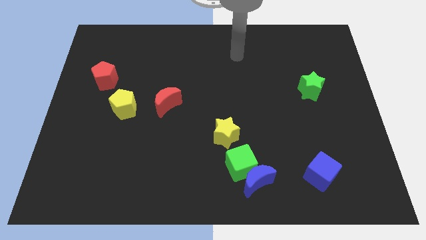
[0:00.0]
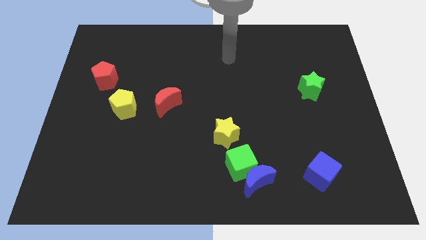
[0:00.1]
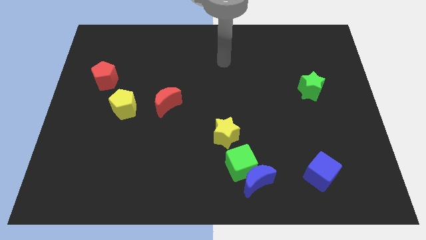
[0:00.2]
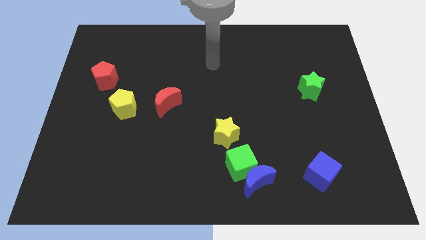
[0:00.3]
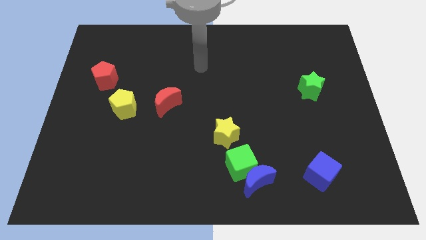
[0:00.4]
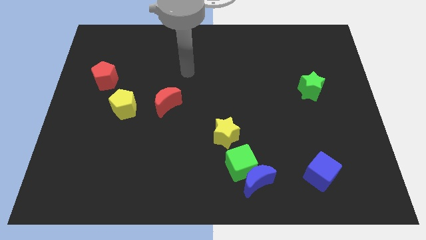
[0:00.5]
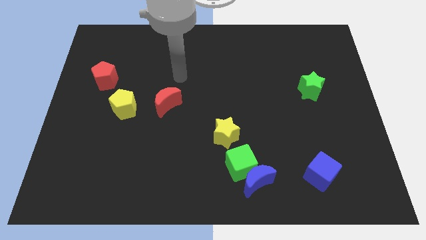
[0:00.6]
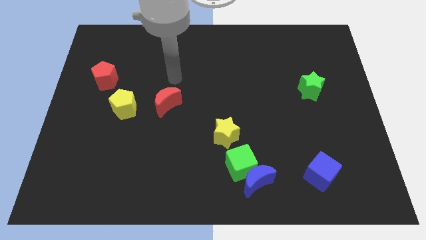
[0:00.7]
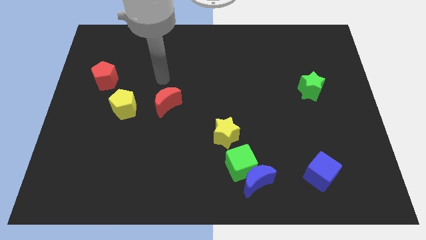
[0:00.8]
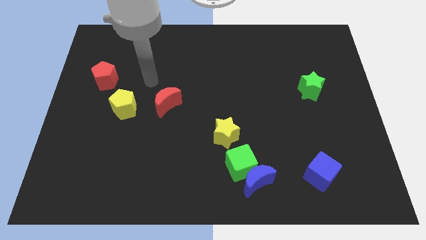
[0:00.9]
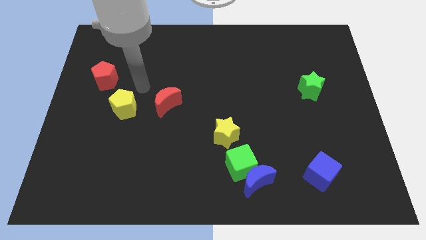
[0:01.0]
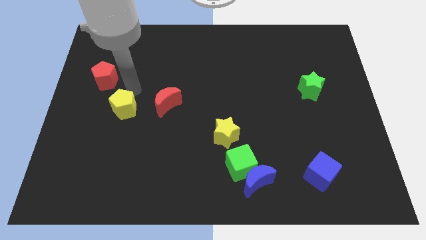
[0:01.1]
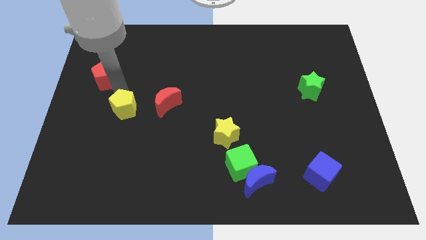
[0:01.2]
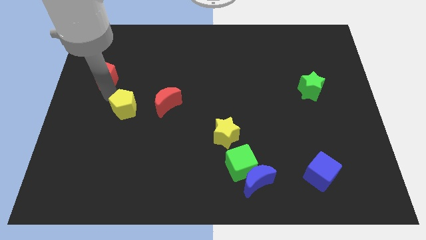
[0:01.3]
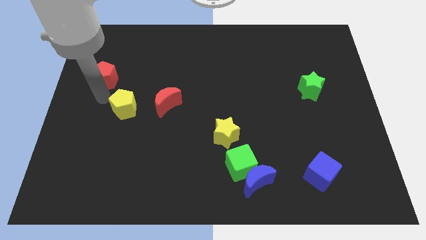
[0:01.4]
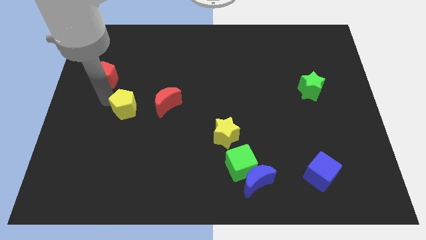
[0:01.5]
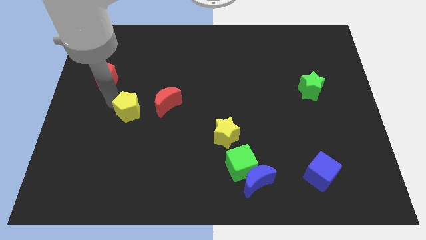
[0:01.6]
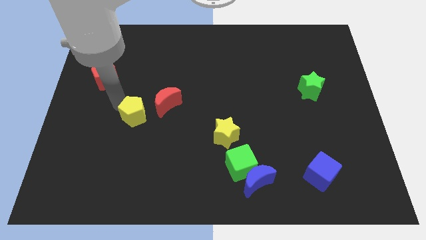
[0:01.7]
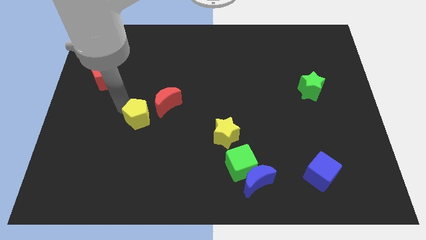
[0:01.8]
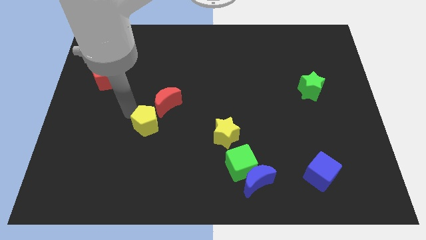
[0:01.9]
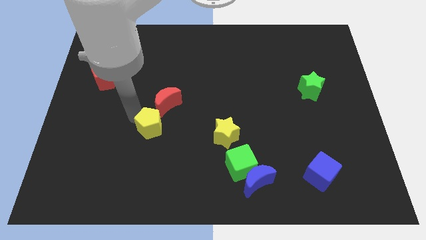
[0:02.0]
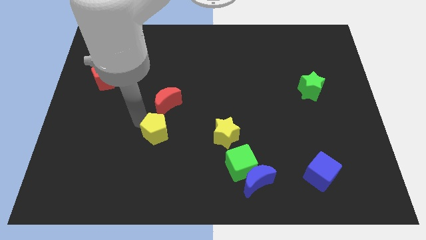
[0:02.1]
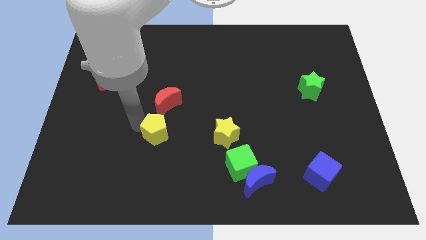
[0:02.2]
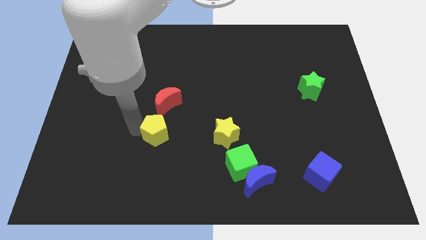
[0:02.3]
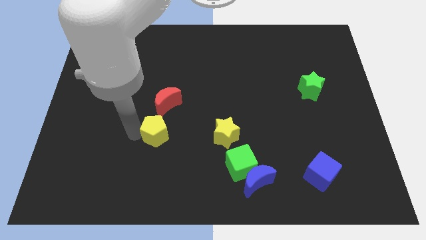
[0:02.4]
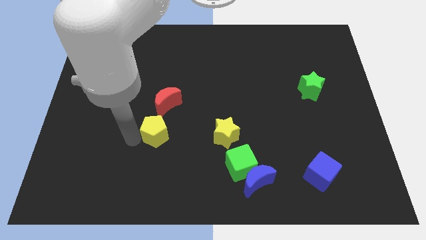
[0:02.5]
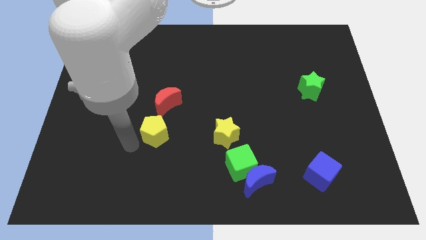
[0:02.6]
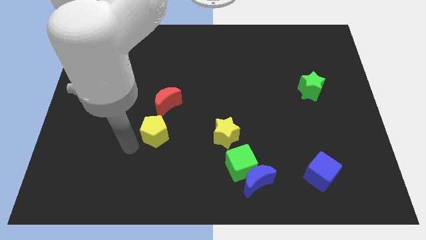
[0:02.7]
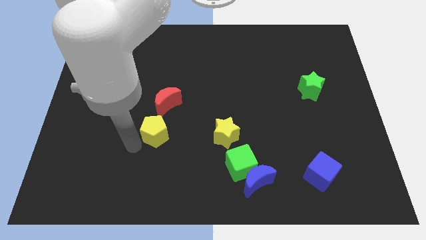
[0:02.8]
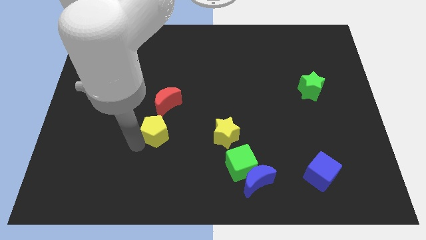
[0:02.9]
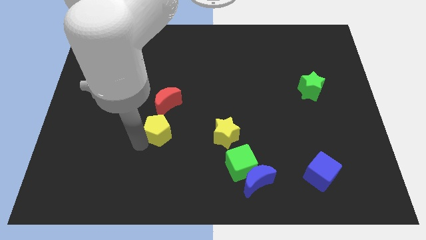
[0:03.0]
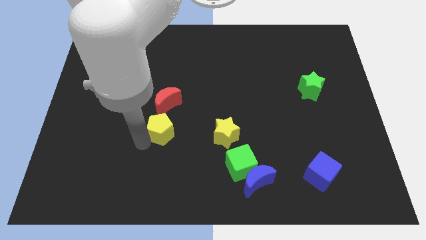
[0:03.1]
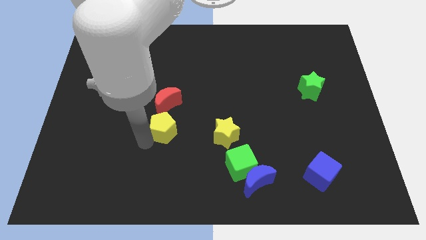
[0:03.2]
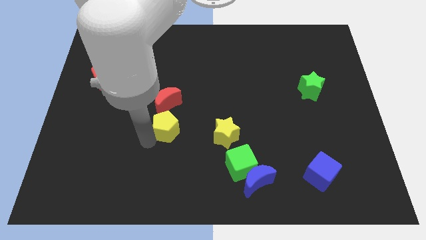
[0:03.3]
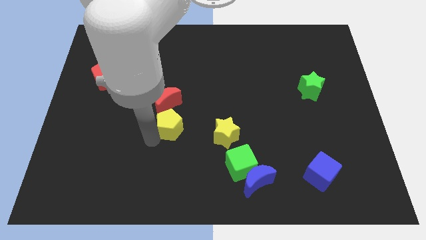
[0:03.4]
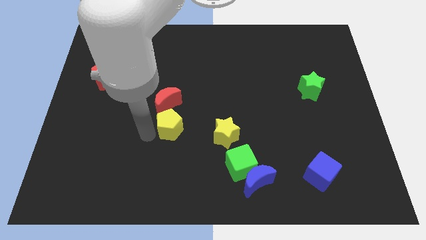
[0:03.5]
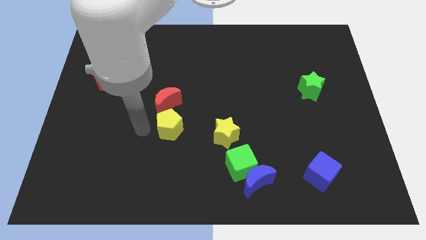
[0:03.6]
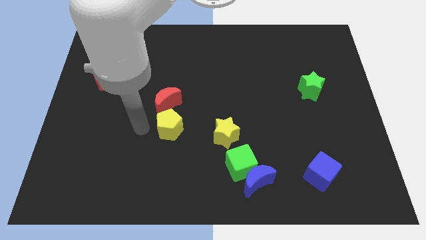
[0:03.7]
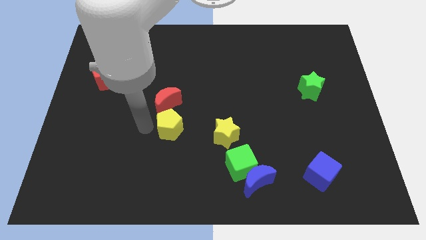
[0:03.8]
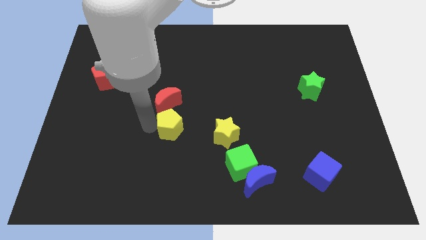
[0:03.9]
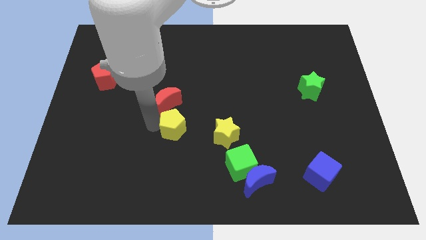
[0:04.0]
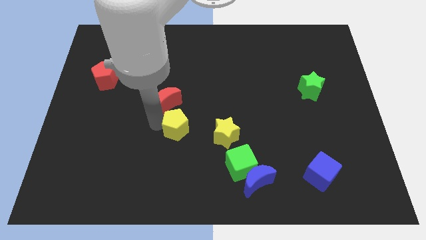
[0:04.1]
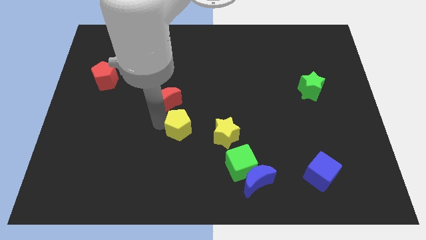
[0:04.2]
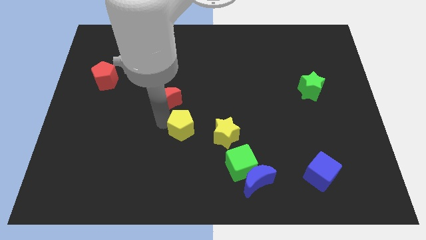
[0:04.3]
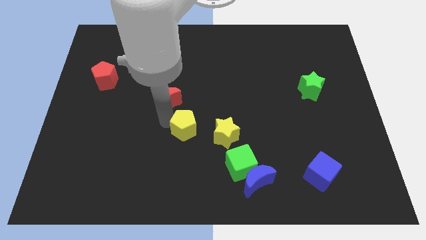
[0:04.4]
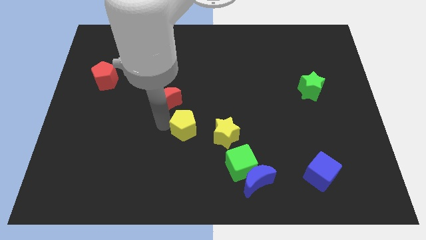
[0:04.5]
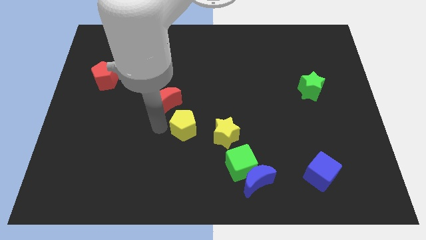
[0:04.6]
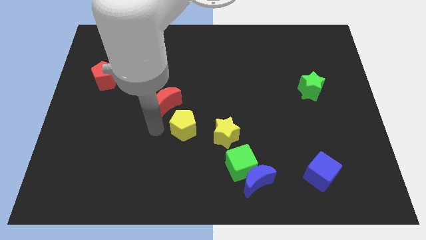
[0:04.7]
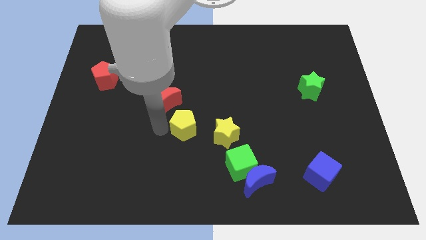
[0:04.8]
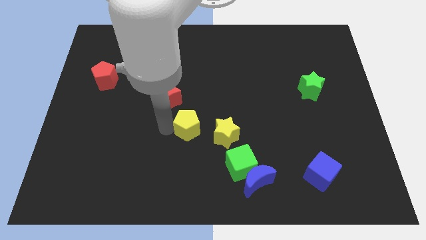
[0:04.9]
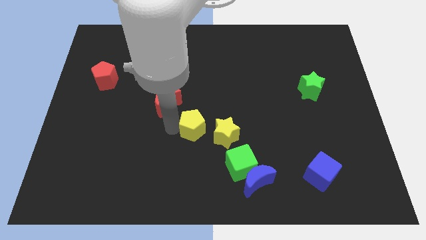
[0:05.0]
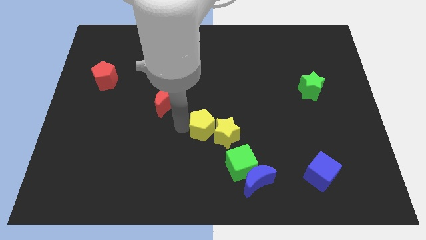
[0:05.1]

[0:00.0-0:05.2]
push the yellow pentagon close to the yellow star

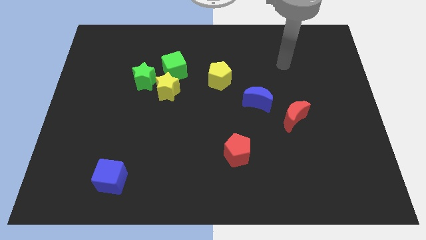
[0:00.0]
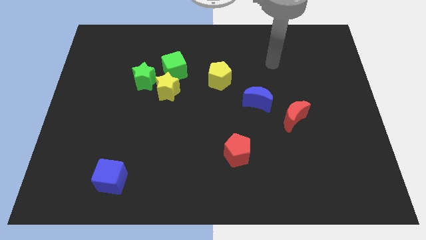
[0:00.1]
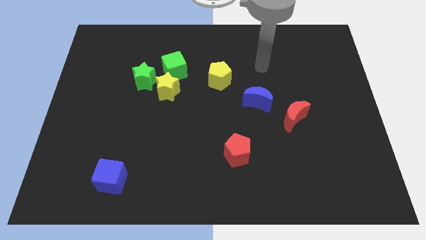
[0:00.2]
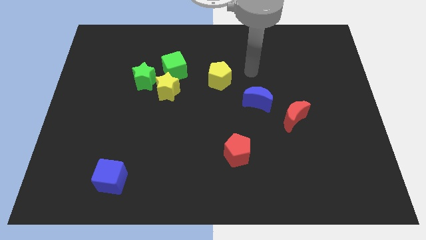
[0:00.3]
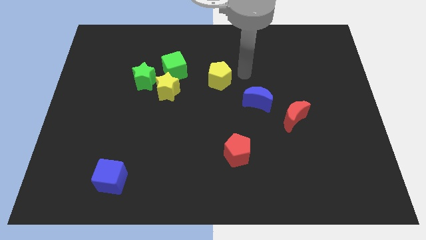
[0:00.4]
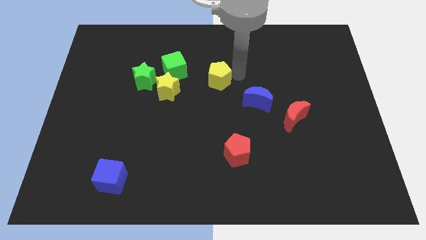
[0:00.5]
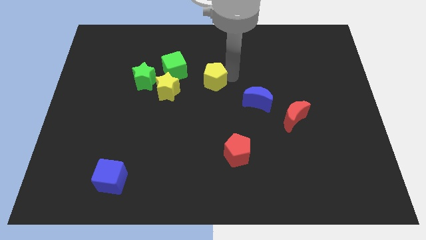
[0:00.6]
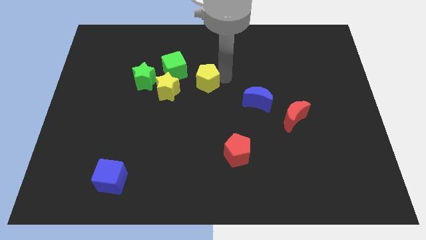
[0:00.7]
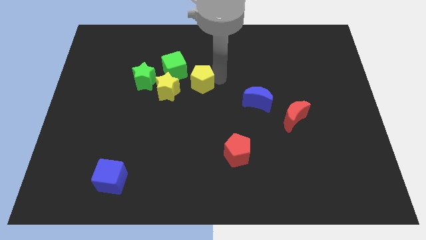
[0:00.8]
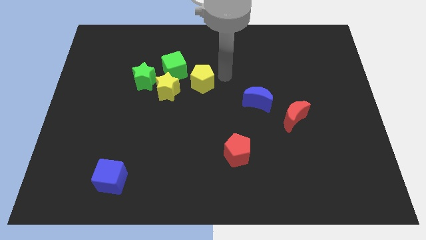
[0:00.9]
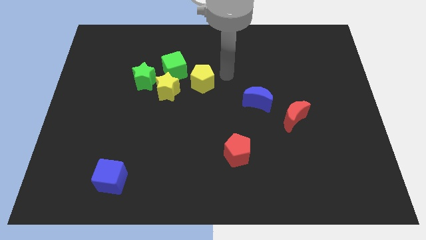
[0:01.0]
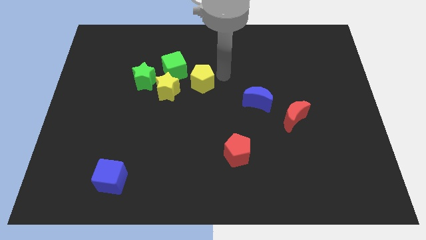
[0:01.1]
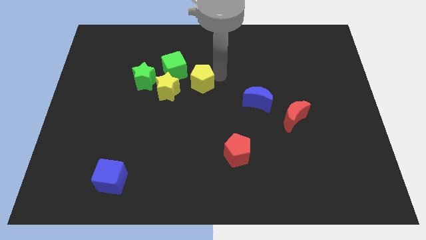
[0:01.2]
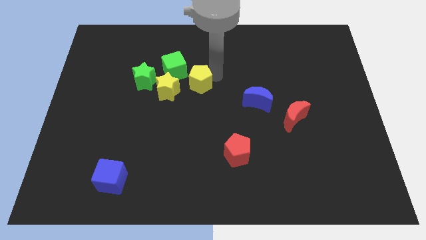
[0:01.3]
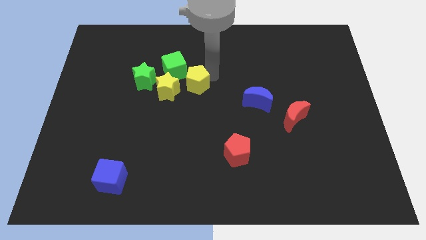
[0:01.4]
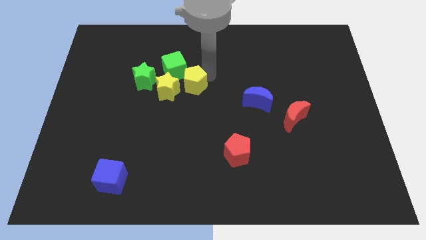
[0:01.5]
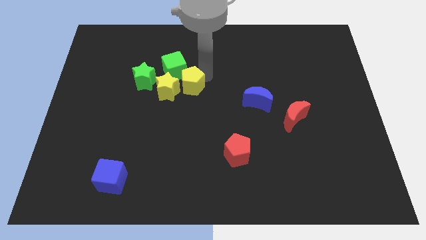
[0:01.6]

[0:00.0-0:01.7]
slide the yellow pentagon to the yellow star
